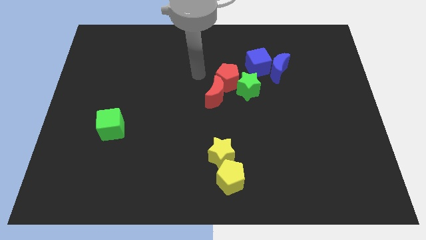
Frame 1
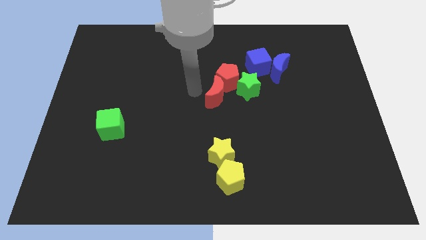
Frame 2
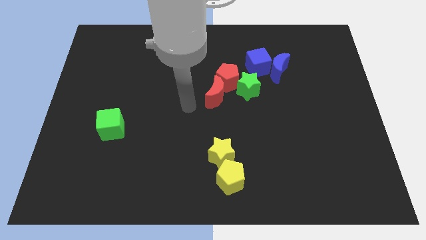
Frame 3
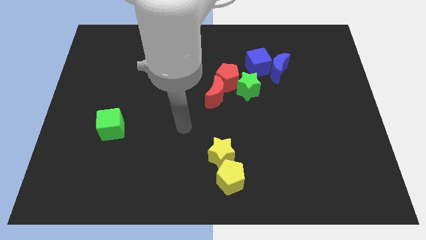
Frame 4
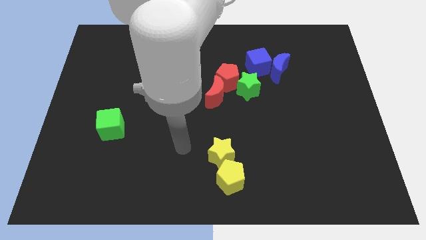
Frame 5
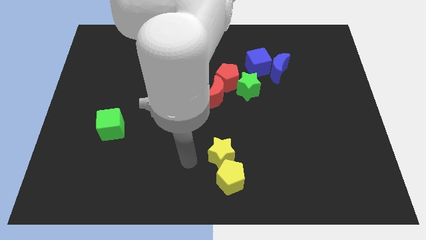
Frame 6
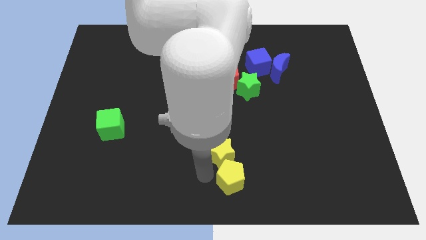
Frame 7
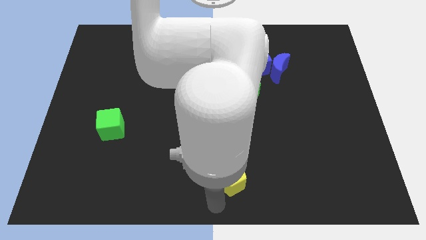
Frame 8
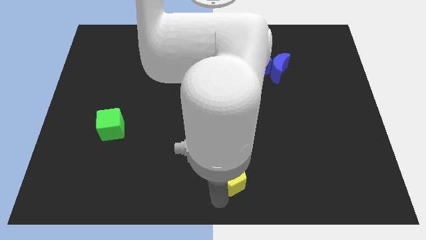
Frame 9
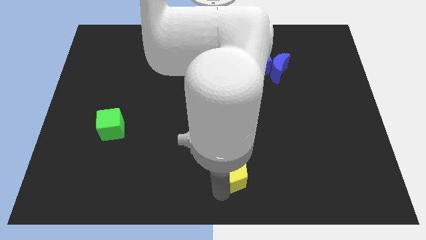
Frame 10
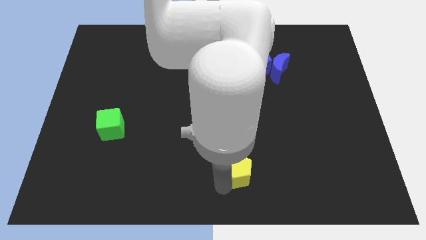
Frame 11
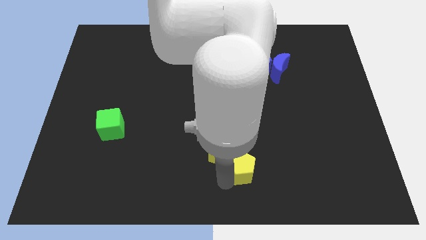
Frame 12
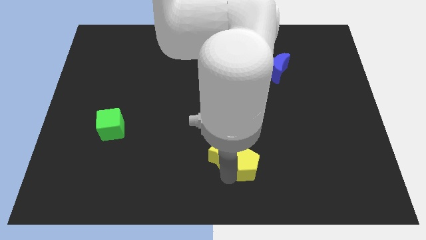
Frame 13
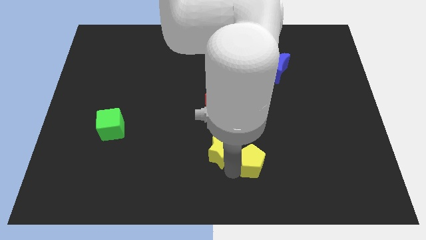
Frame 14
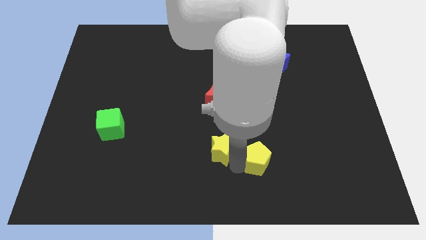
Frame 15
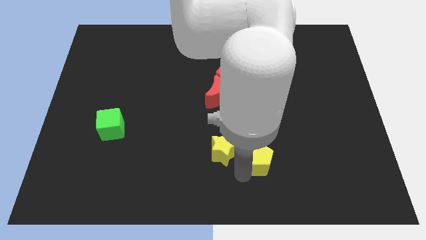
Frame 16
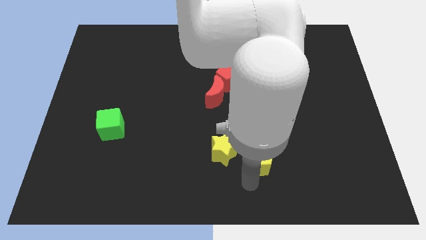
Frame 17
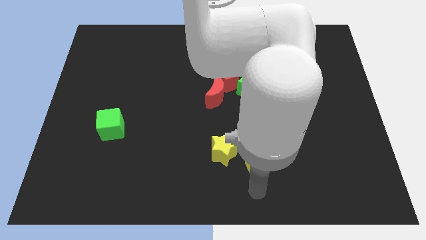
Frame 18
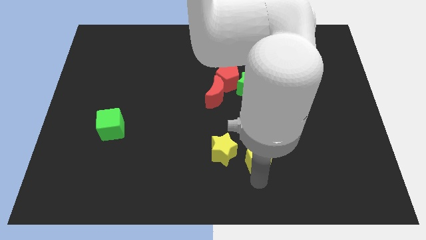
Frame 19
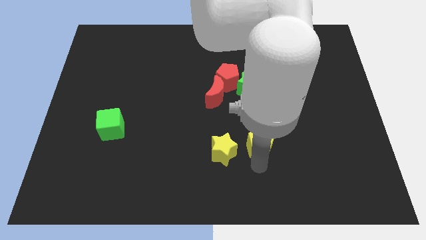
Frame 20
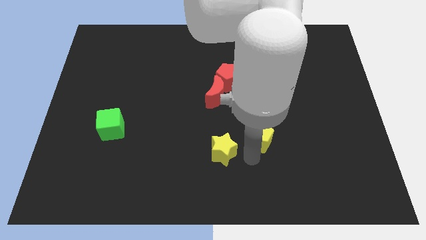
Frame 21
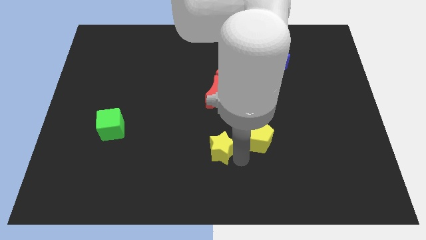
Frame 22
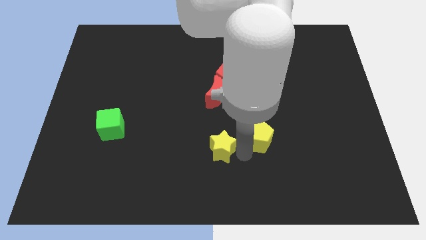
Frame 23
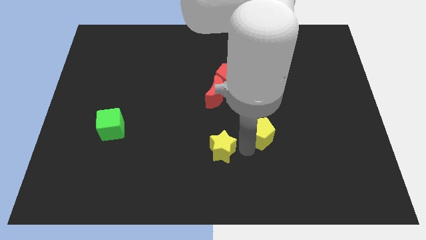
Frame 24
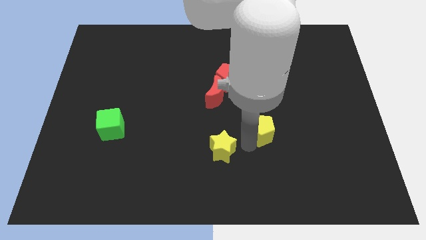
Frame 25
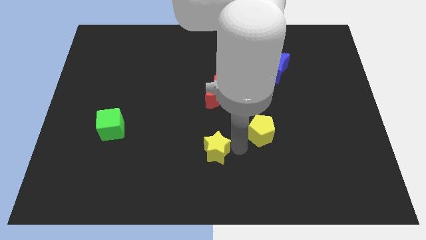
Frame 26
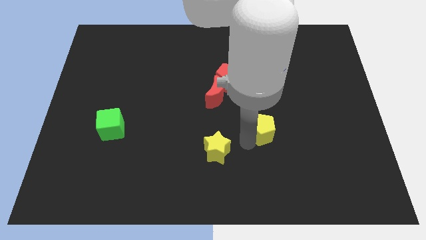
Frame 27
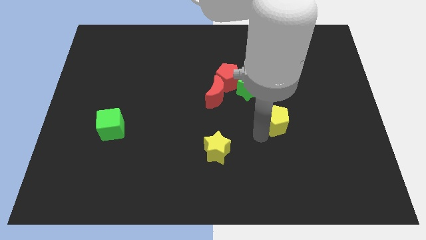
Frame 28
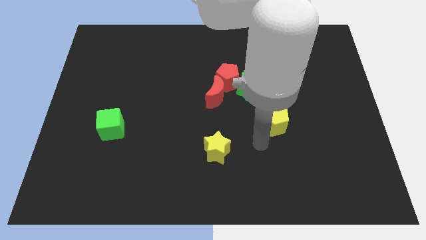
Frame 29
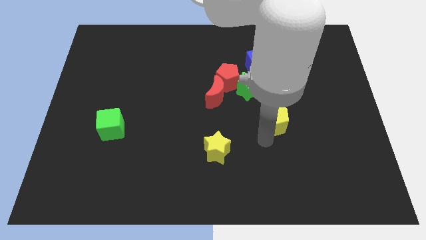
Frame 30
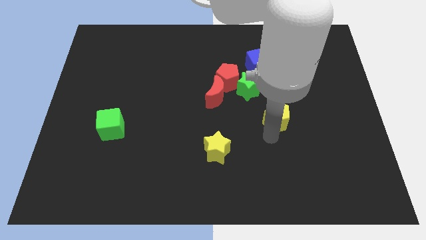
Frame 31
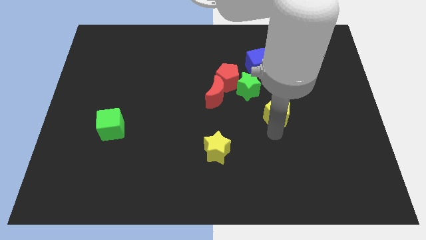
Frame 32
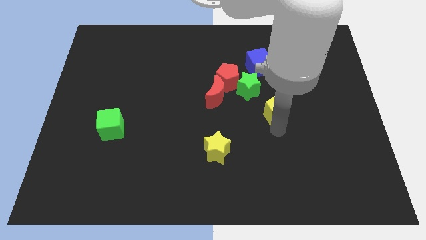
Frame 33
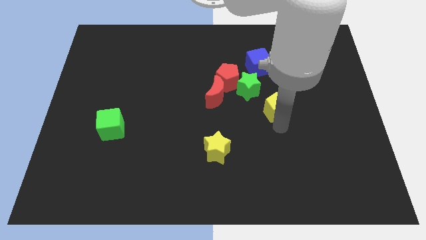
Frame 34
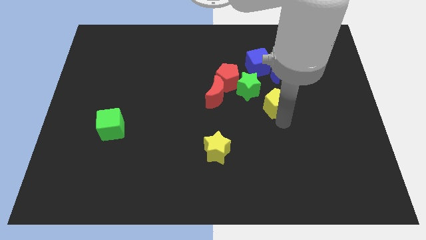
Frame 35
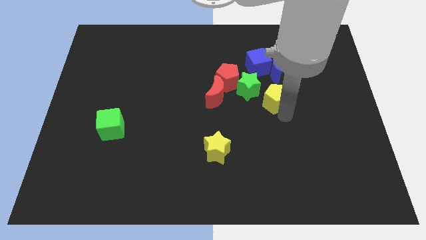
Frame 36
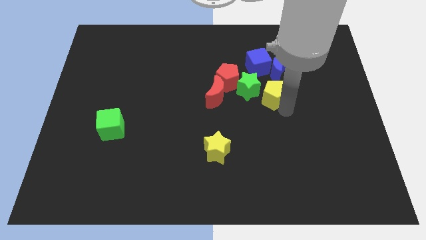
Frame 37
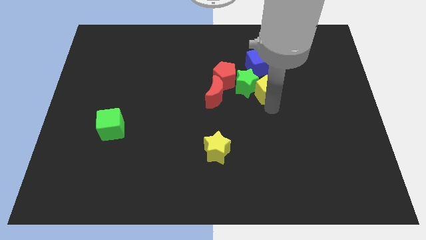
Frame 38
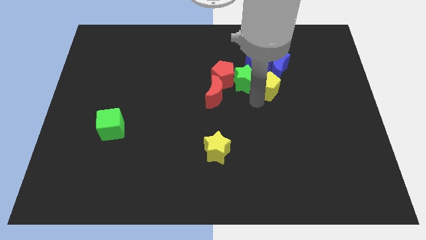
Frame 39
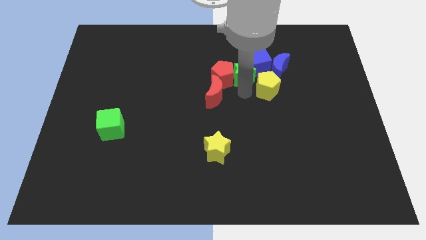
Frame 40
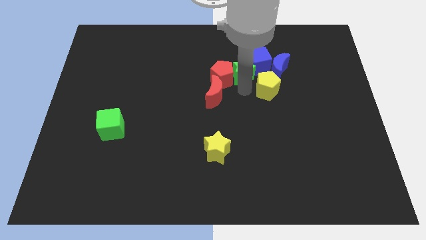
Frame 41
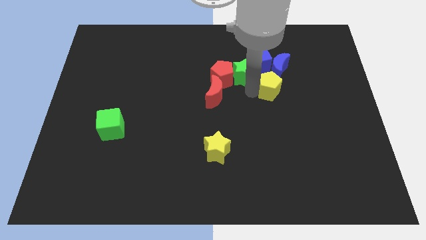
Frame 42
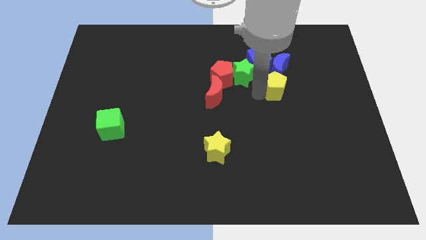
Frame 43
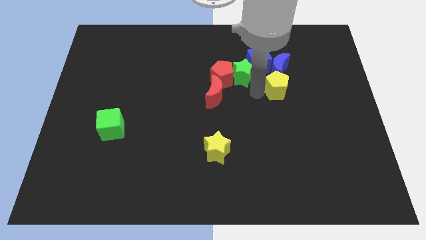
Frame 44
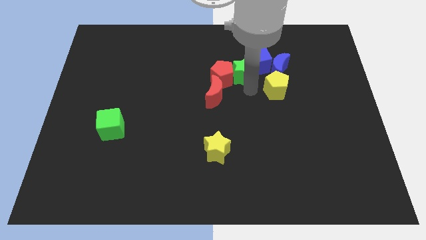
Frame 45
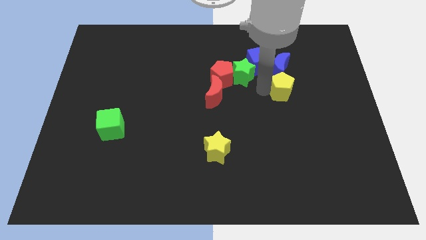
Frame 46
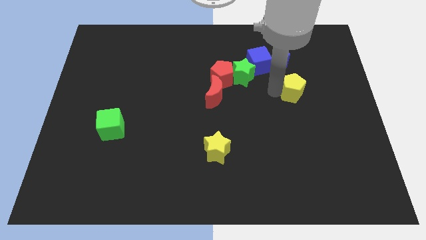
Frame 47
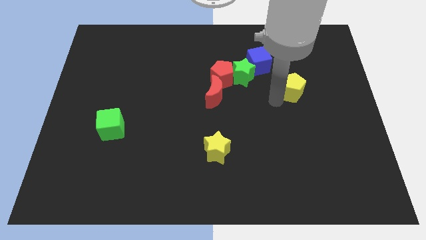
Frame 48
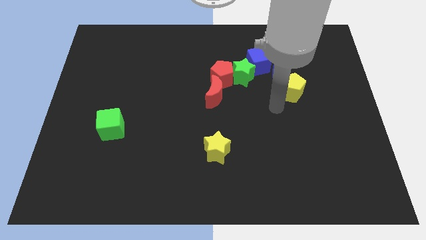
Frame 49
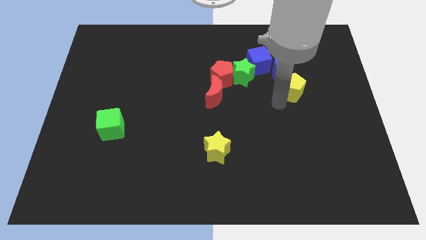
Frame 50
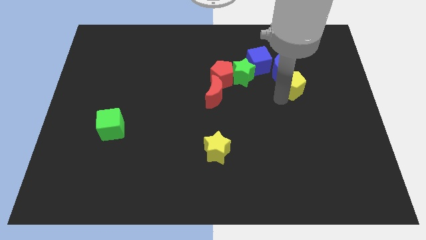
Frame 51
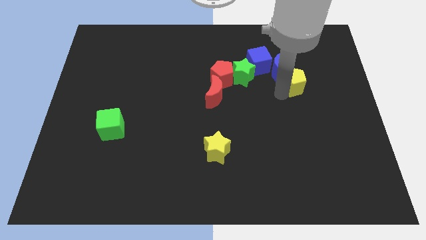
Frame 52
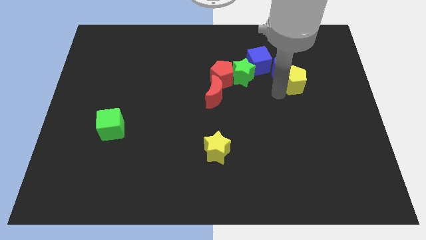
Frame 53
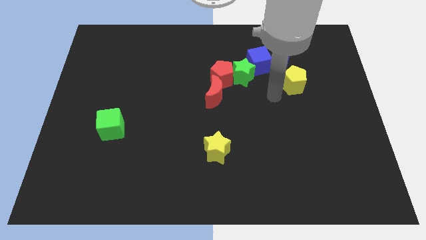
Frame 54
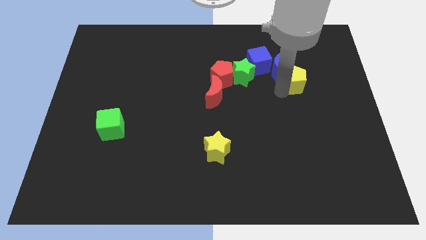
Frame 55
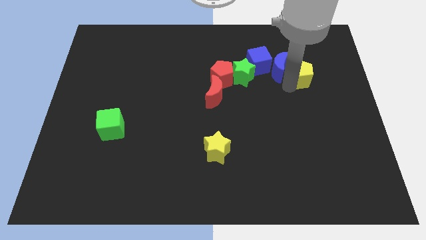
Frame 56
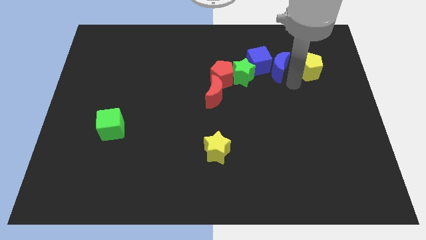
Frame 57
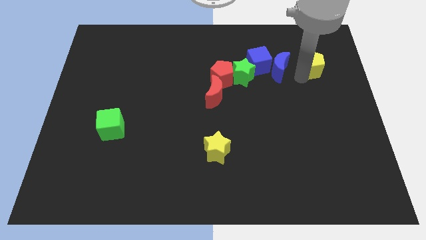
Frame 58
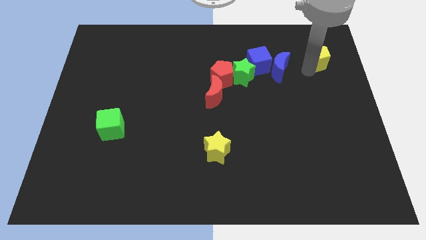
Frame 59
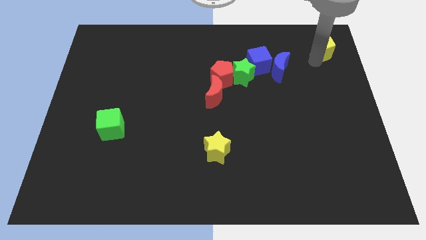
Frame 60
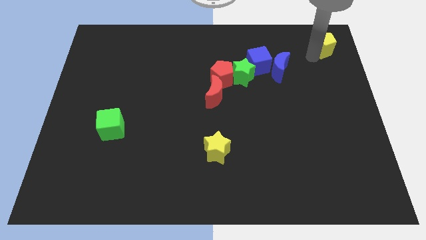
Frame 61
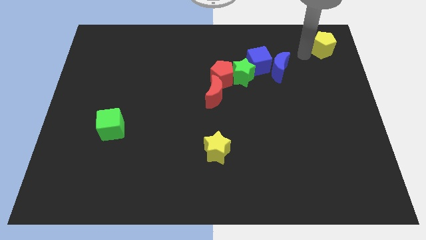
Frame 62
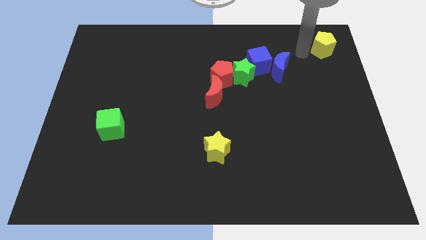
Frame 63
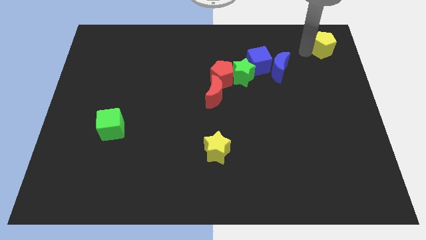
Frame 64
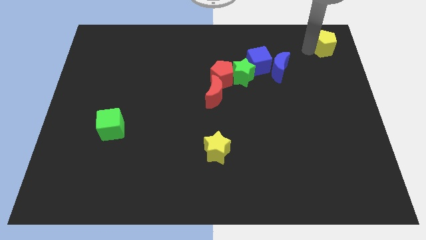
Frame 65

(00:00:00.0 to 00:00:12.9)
move the yellow pentagon to the top right
